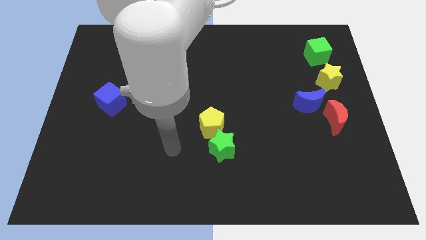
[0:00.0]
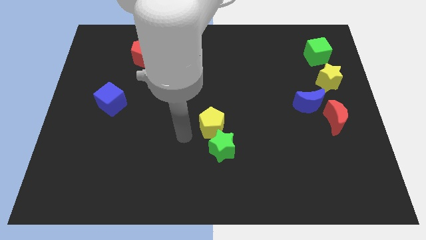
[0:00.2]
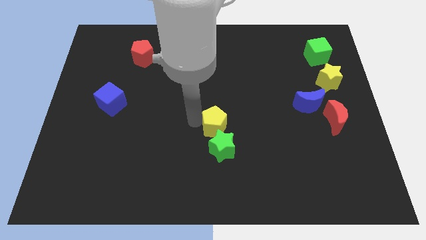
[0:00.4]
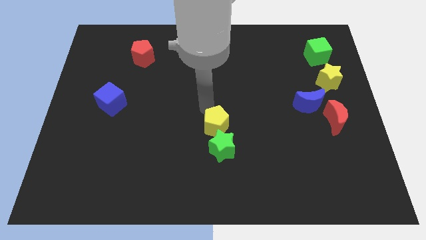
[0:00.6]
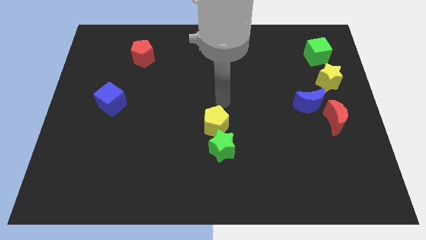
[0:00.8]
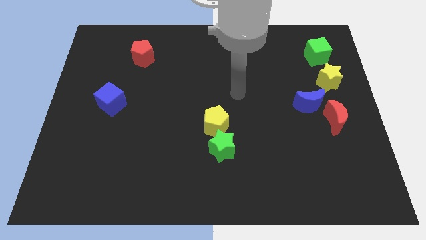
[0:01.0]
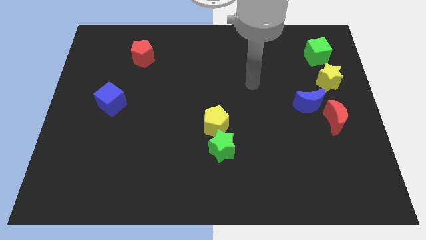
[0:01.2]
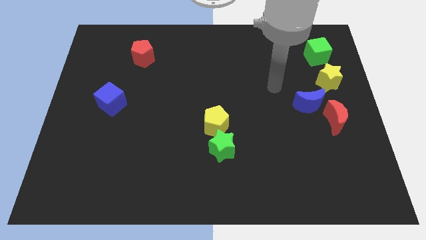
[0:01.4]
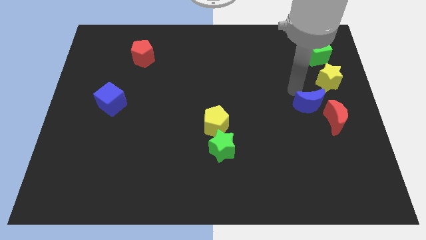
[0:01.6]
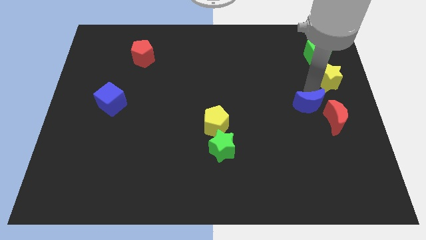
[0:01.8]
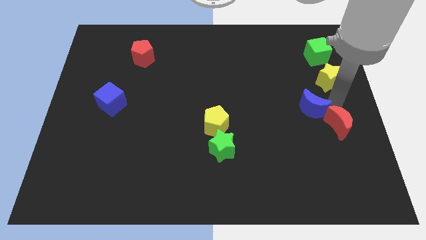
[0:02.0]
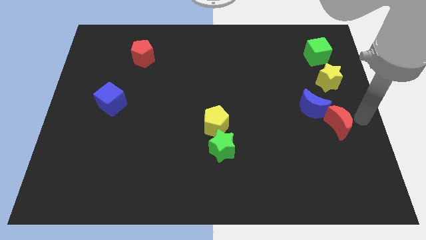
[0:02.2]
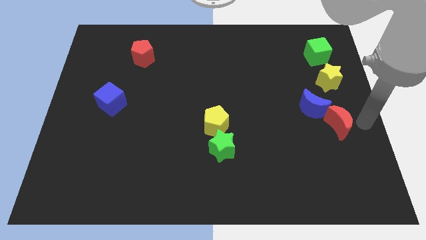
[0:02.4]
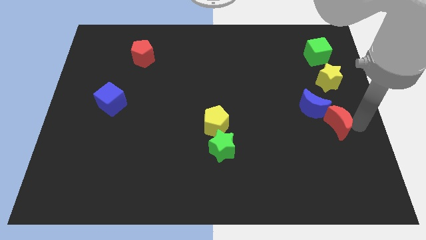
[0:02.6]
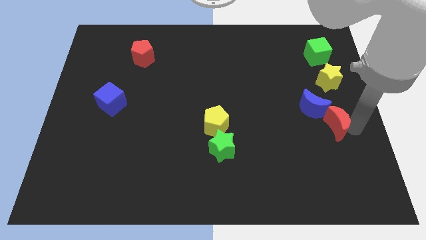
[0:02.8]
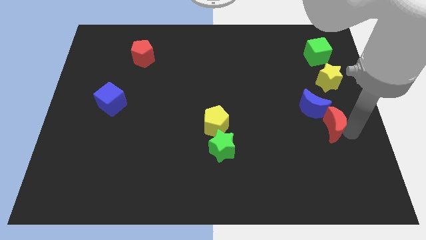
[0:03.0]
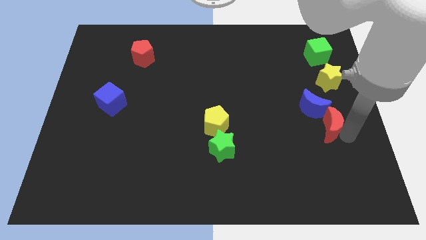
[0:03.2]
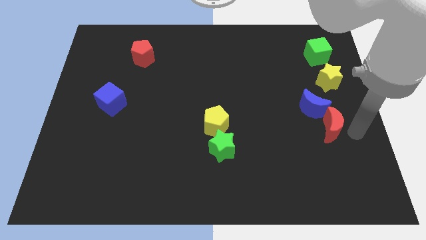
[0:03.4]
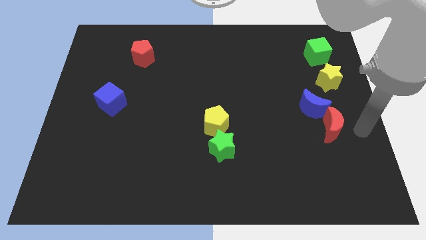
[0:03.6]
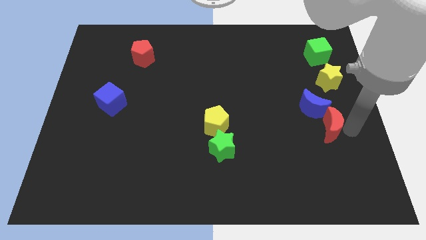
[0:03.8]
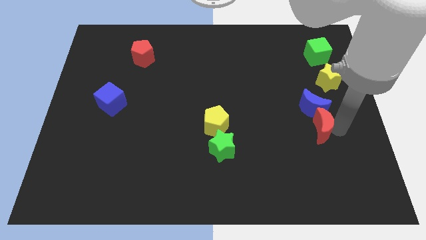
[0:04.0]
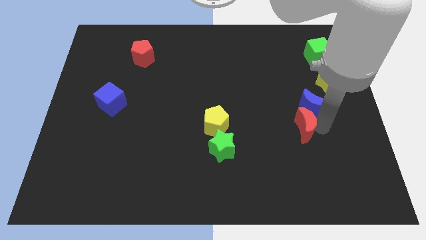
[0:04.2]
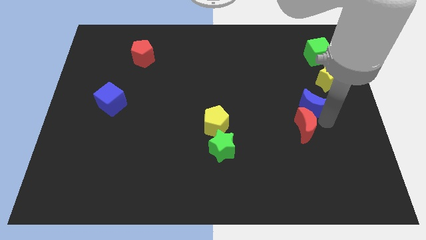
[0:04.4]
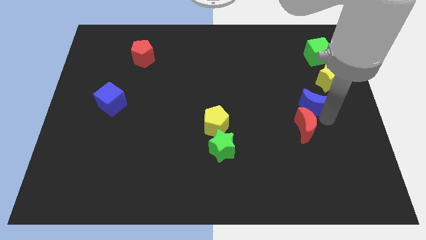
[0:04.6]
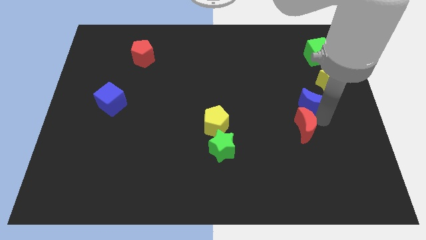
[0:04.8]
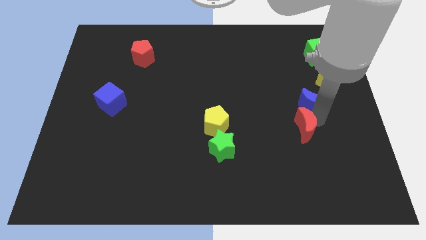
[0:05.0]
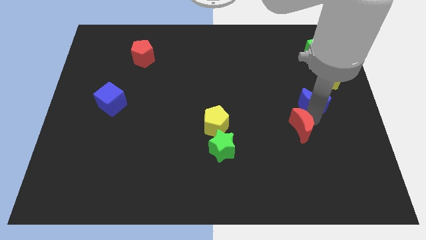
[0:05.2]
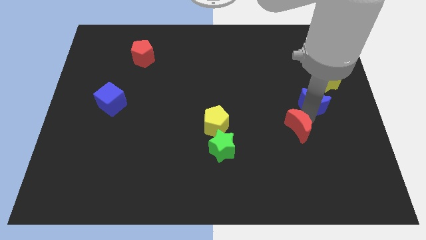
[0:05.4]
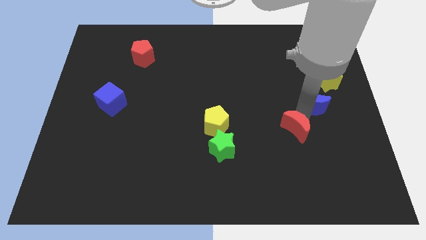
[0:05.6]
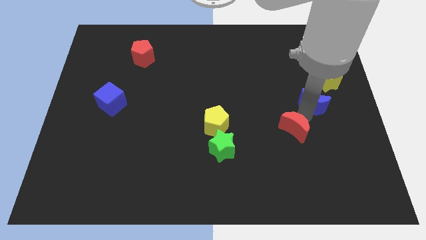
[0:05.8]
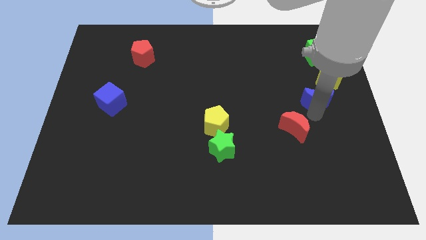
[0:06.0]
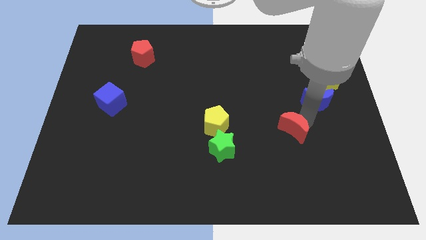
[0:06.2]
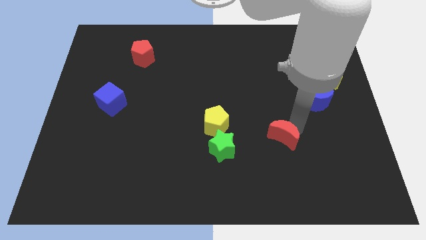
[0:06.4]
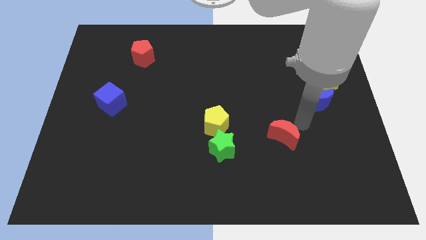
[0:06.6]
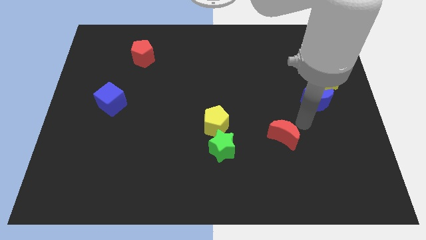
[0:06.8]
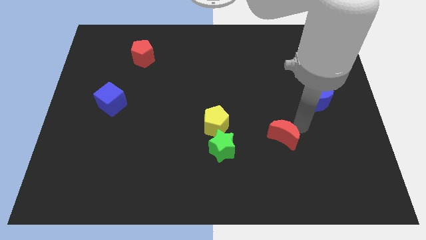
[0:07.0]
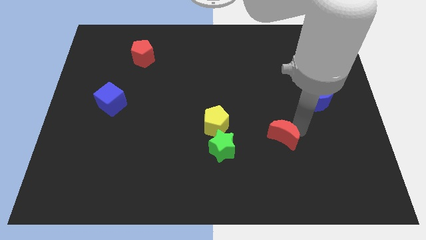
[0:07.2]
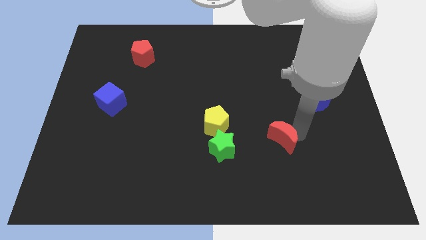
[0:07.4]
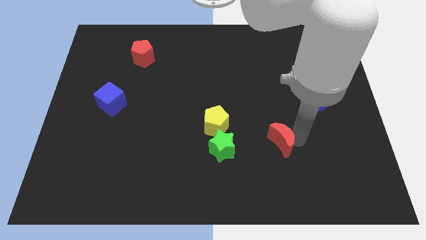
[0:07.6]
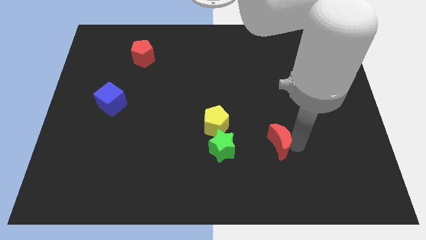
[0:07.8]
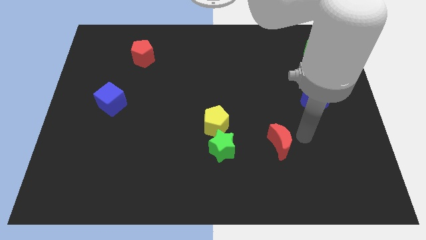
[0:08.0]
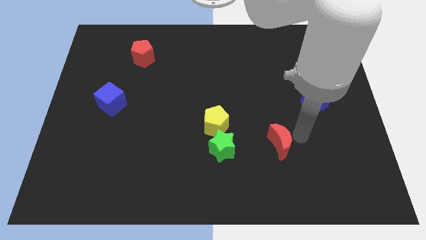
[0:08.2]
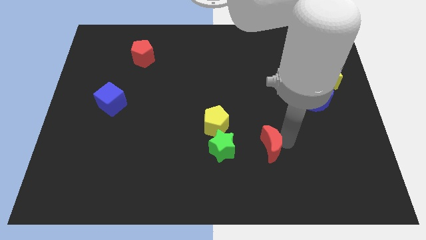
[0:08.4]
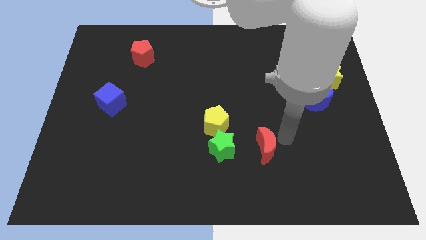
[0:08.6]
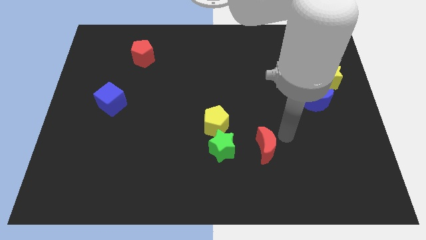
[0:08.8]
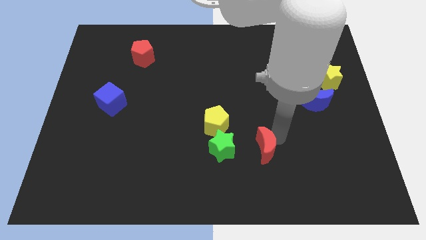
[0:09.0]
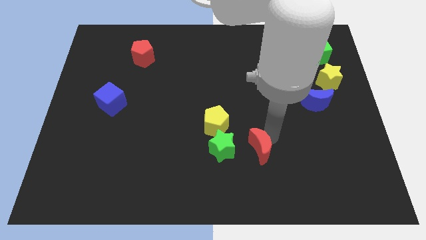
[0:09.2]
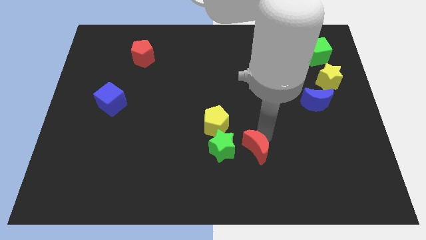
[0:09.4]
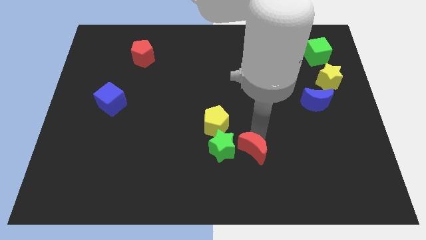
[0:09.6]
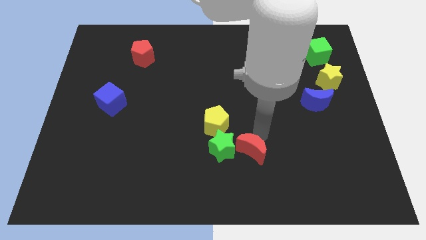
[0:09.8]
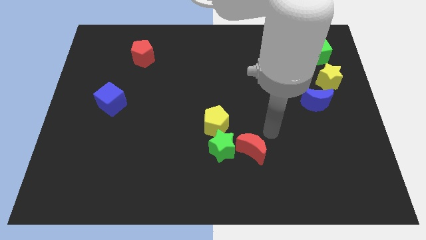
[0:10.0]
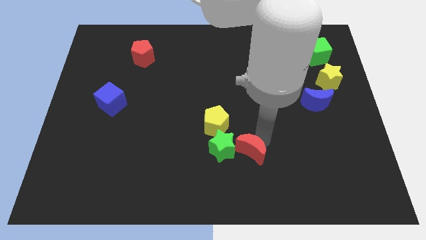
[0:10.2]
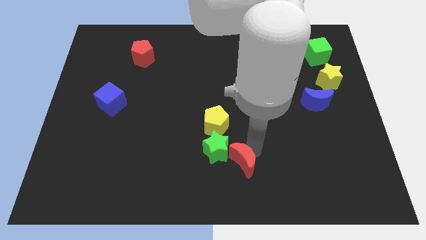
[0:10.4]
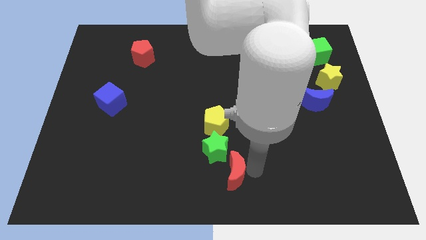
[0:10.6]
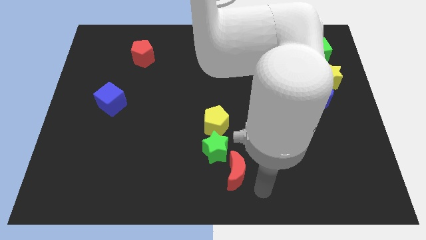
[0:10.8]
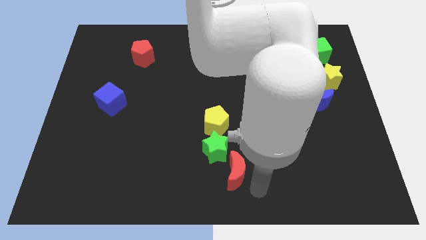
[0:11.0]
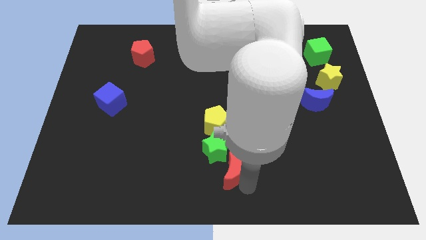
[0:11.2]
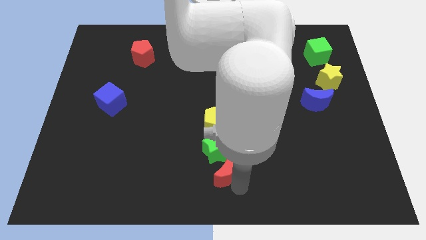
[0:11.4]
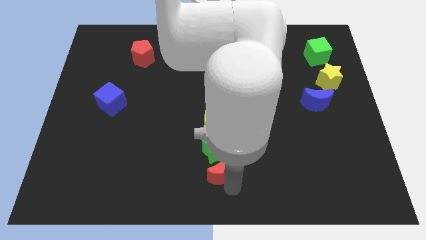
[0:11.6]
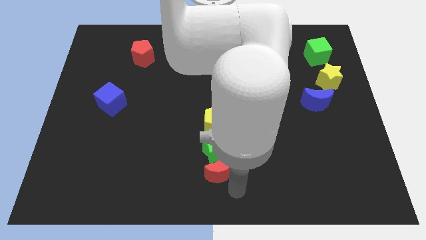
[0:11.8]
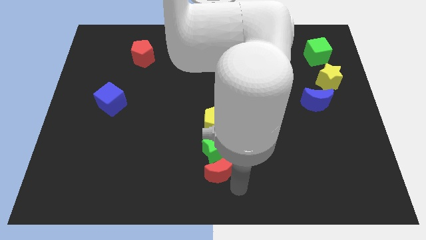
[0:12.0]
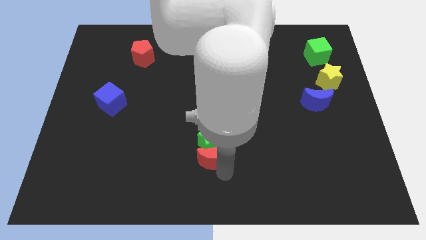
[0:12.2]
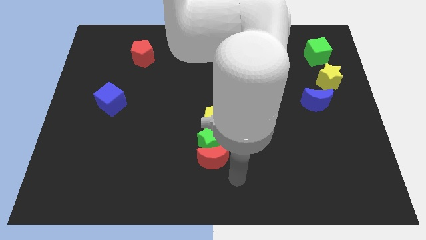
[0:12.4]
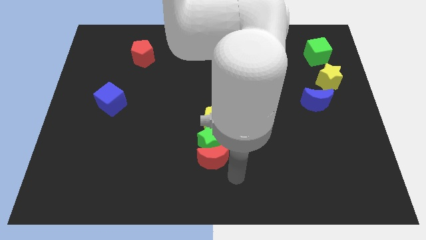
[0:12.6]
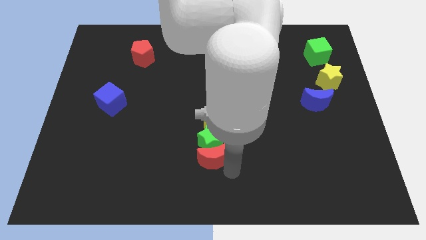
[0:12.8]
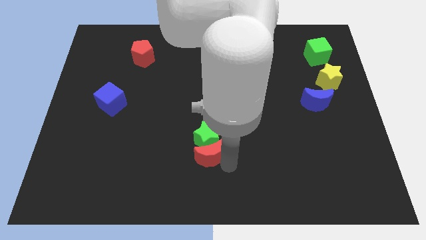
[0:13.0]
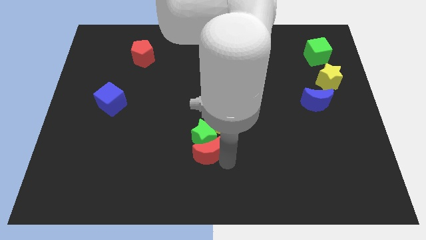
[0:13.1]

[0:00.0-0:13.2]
push the red moon to the bottom left of the yellow pentagon
